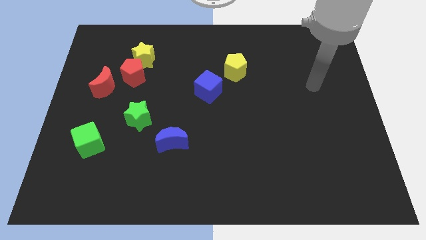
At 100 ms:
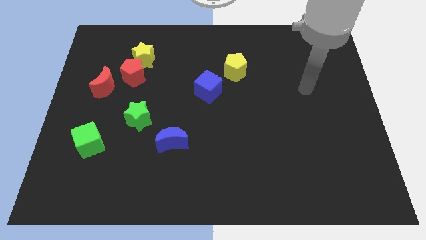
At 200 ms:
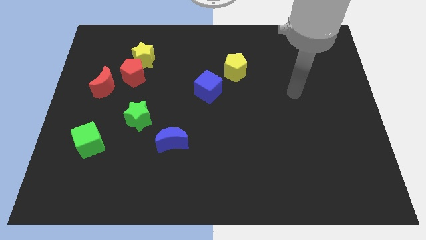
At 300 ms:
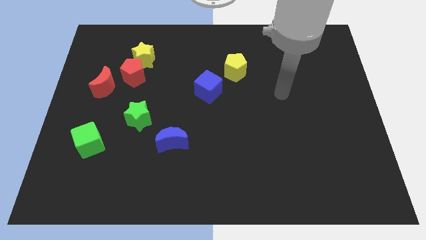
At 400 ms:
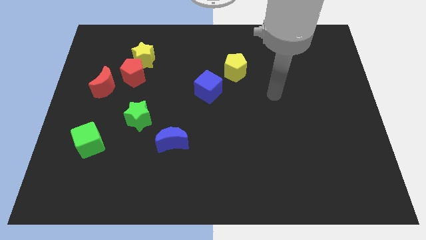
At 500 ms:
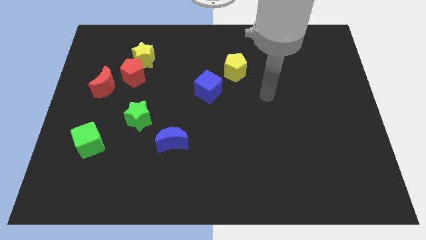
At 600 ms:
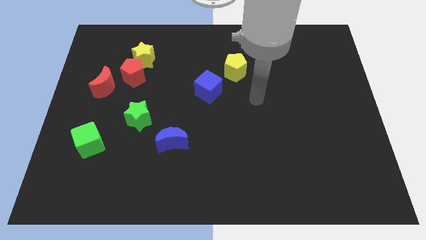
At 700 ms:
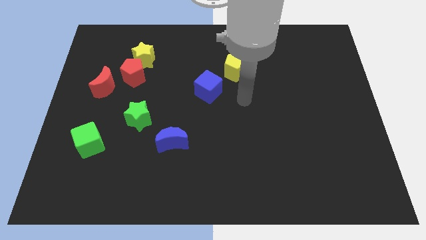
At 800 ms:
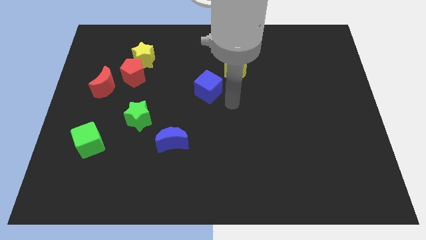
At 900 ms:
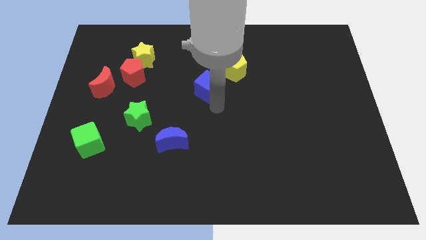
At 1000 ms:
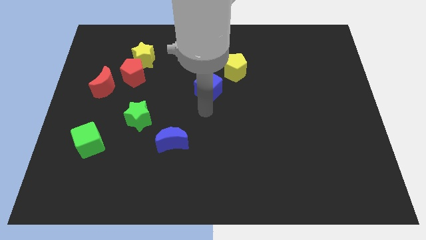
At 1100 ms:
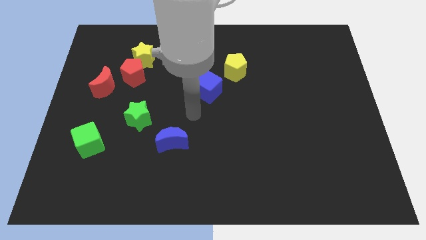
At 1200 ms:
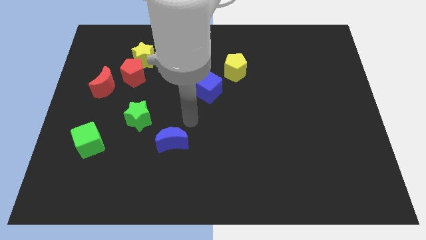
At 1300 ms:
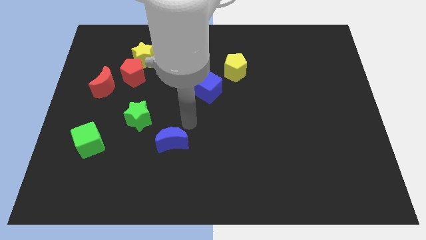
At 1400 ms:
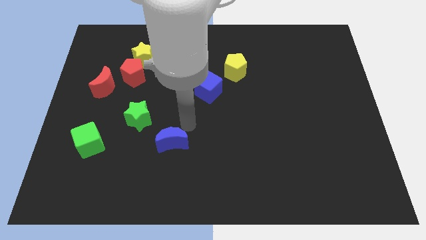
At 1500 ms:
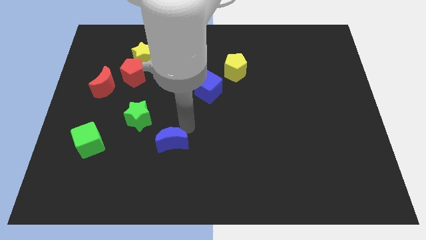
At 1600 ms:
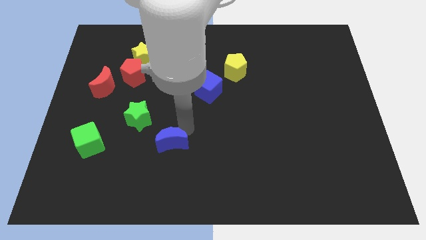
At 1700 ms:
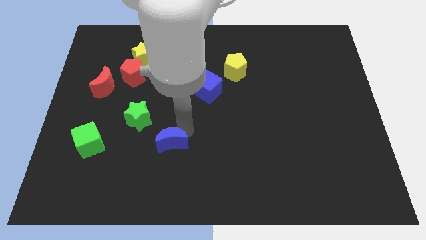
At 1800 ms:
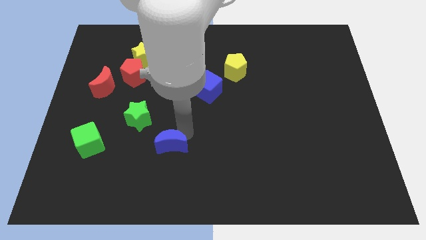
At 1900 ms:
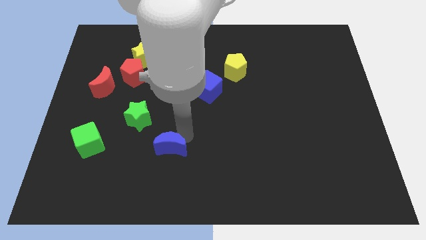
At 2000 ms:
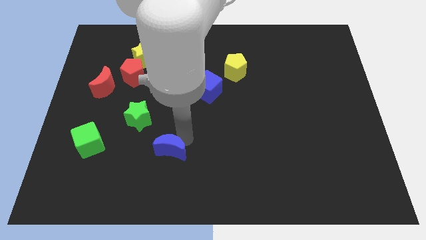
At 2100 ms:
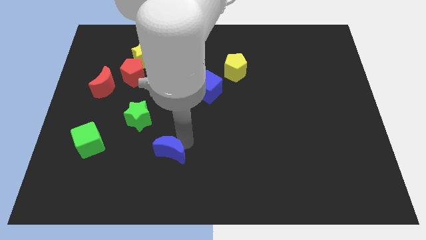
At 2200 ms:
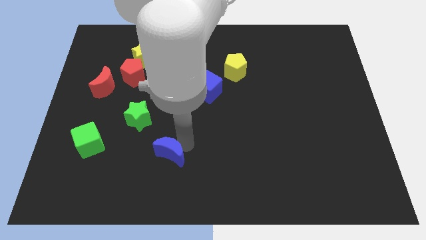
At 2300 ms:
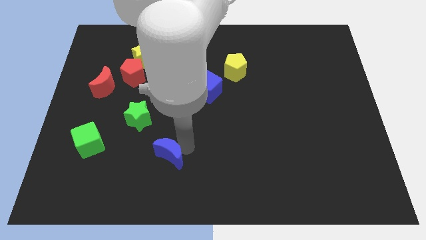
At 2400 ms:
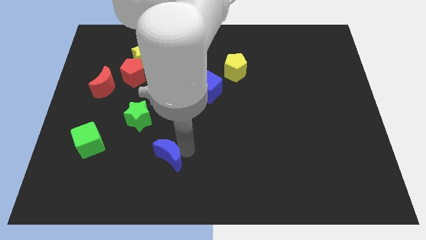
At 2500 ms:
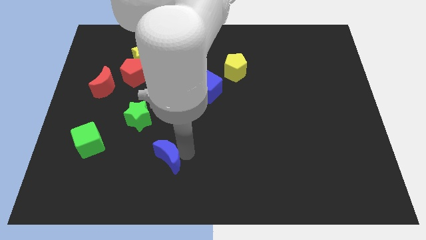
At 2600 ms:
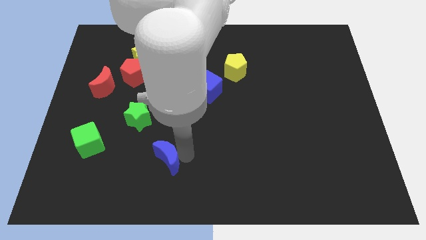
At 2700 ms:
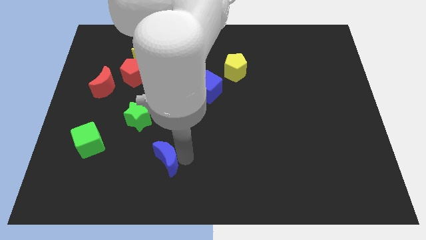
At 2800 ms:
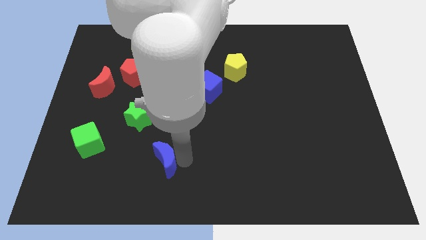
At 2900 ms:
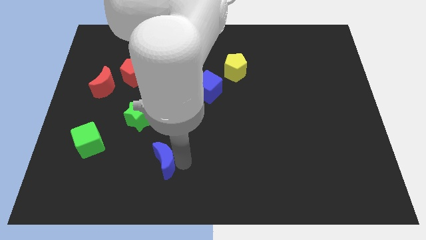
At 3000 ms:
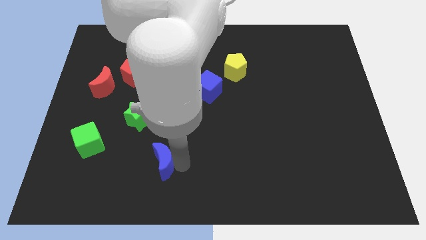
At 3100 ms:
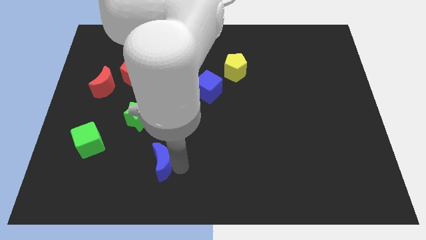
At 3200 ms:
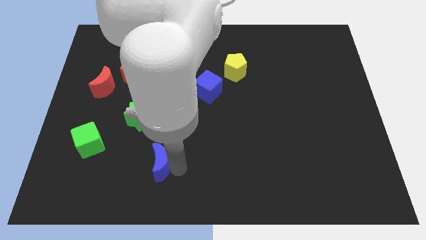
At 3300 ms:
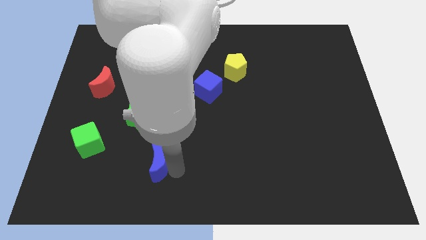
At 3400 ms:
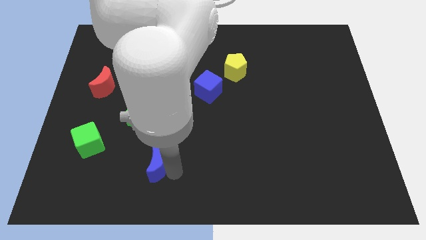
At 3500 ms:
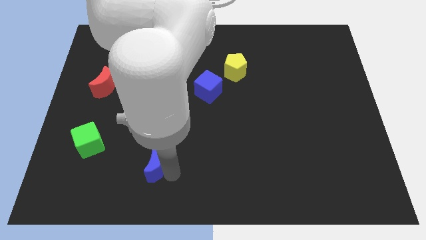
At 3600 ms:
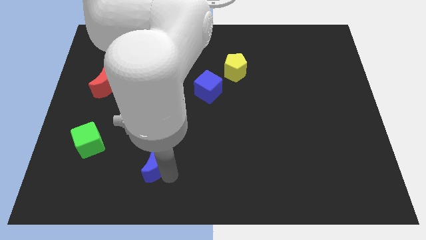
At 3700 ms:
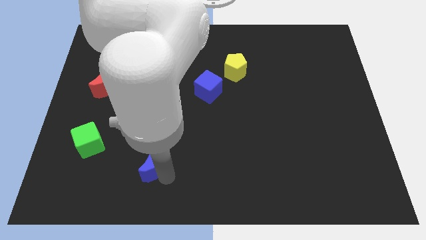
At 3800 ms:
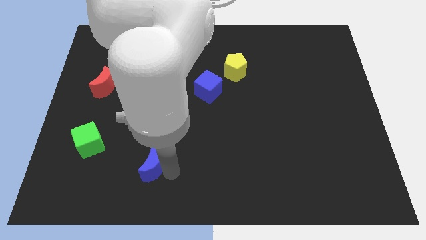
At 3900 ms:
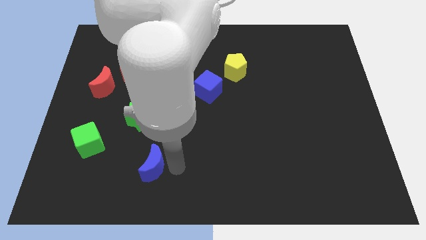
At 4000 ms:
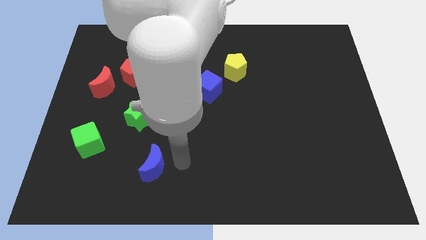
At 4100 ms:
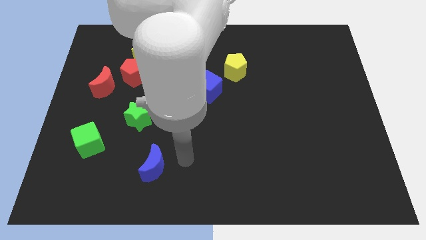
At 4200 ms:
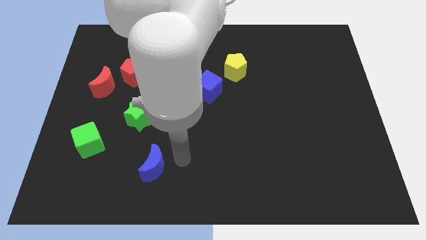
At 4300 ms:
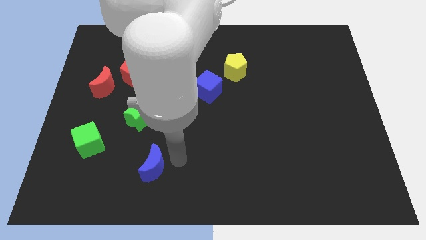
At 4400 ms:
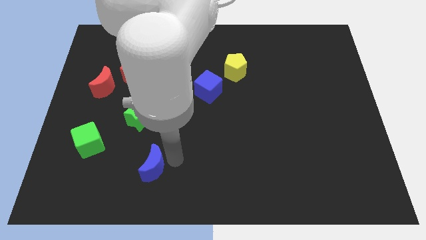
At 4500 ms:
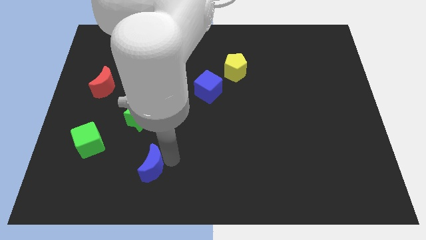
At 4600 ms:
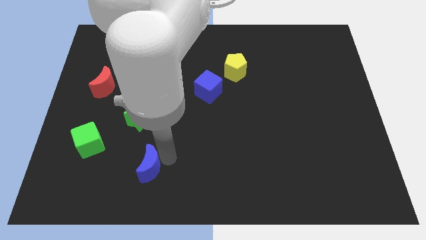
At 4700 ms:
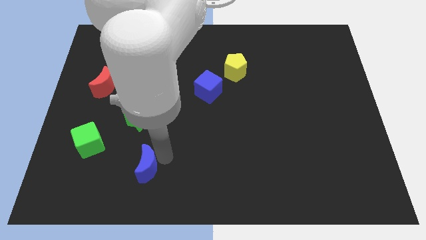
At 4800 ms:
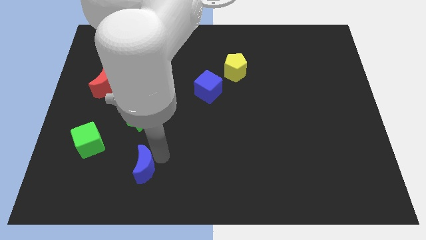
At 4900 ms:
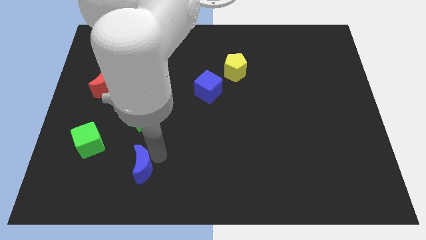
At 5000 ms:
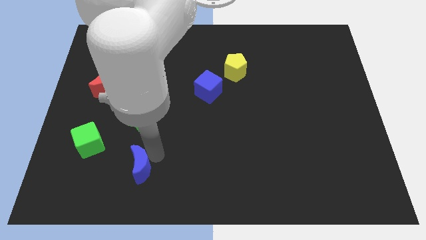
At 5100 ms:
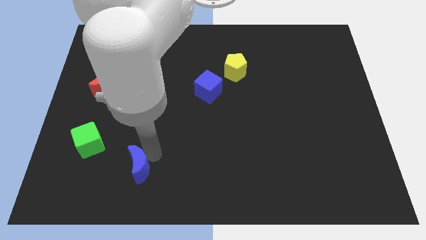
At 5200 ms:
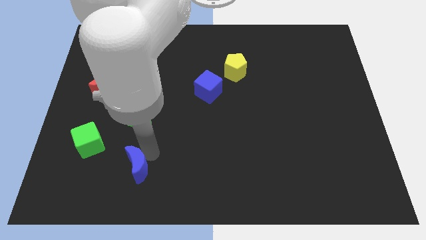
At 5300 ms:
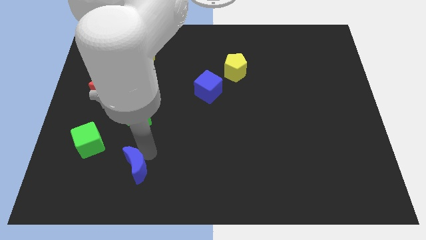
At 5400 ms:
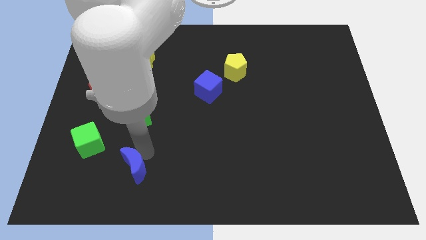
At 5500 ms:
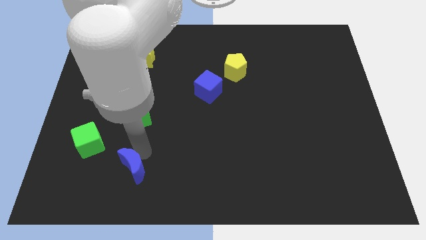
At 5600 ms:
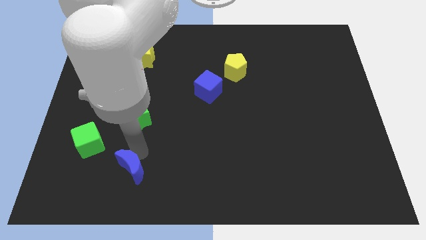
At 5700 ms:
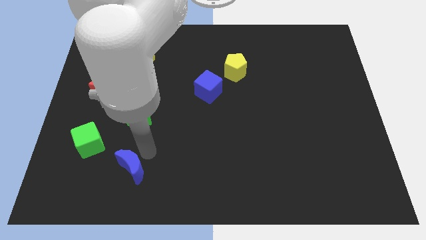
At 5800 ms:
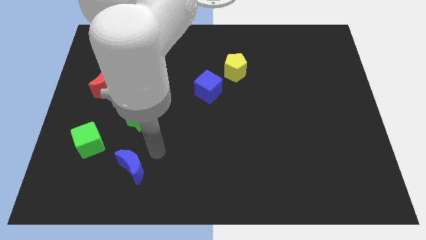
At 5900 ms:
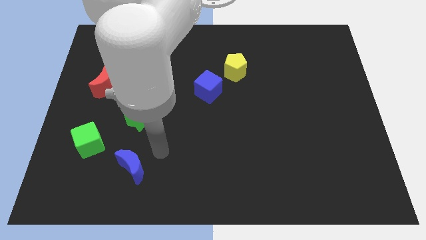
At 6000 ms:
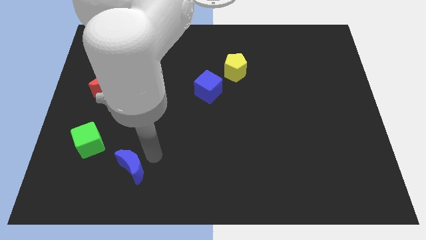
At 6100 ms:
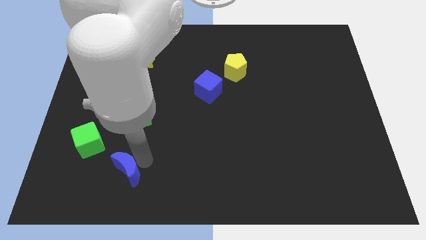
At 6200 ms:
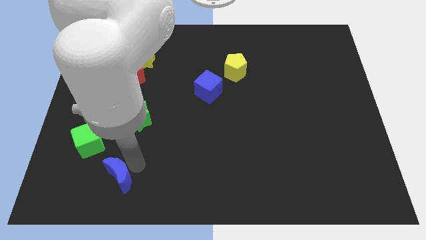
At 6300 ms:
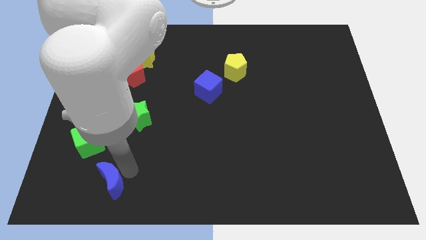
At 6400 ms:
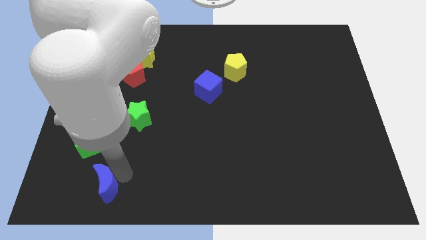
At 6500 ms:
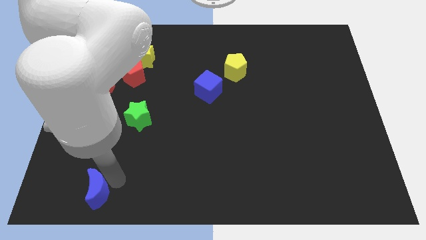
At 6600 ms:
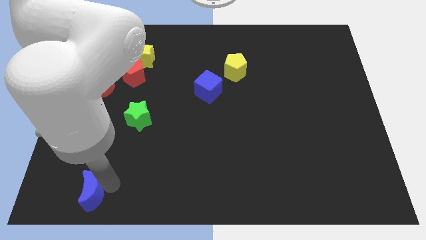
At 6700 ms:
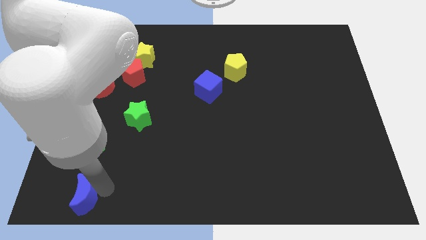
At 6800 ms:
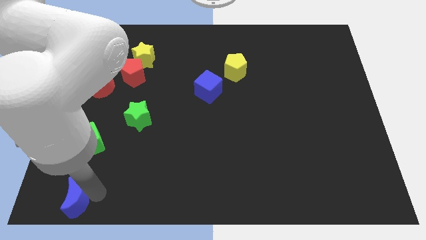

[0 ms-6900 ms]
slide the blue moon to the bottom left of the board

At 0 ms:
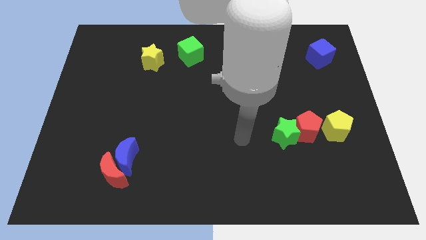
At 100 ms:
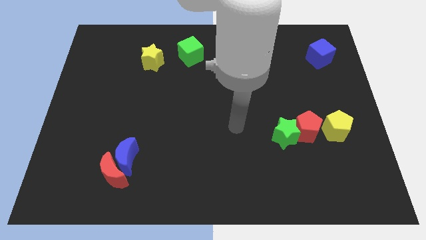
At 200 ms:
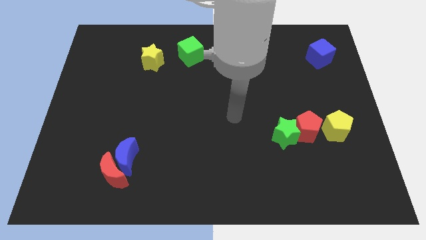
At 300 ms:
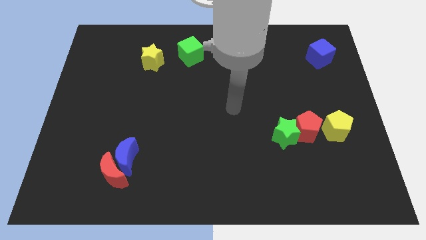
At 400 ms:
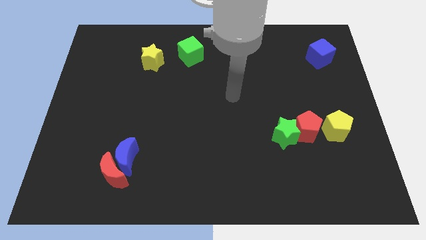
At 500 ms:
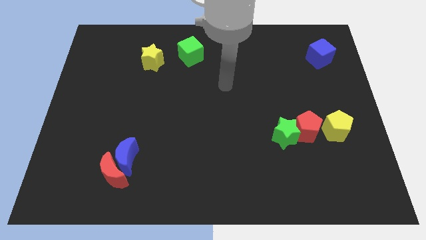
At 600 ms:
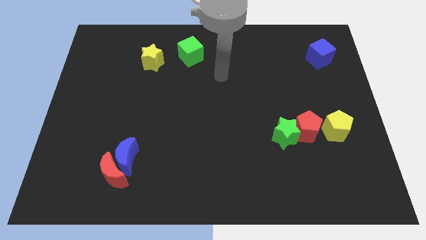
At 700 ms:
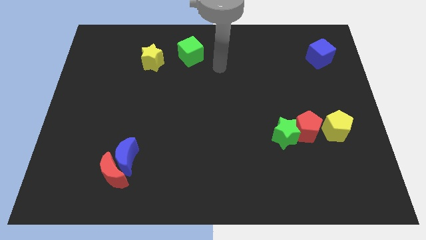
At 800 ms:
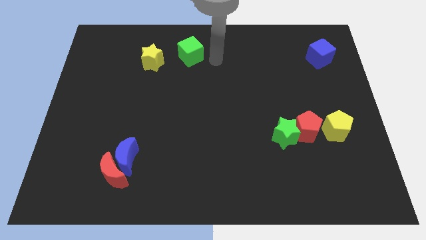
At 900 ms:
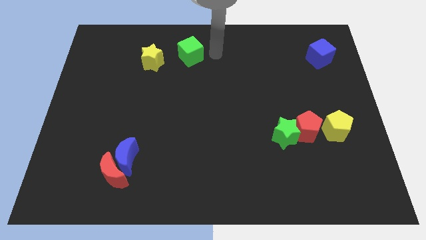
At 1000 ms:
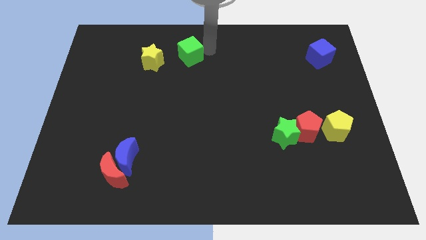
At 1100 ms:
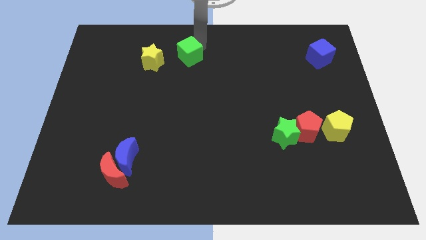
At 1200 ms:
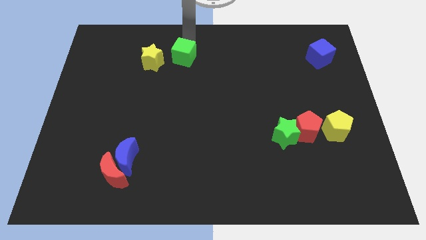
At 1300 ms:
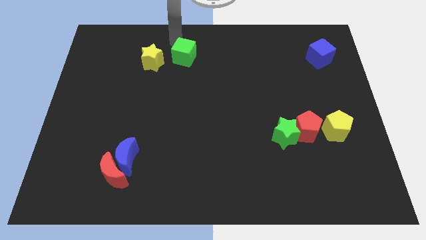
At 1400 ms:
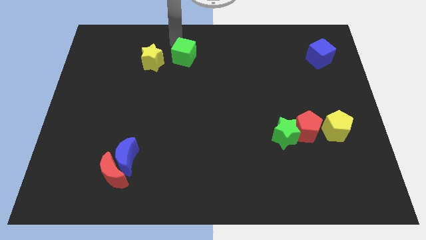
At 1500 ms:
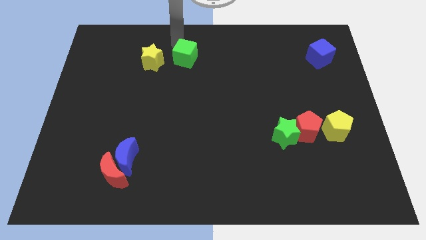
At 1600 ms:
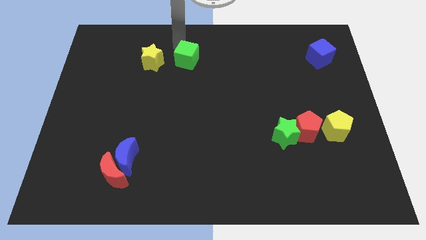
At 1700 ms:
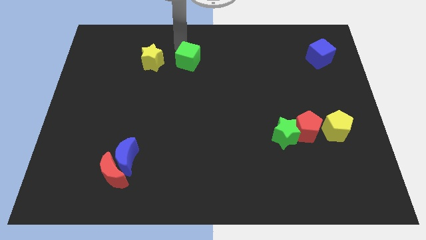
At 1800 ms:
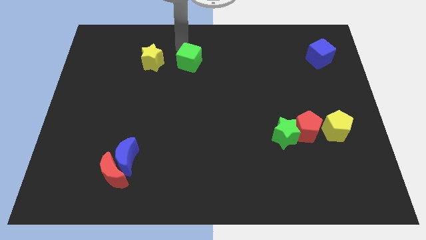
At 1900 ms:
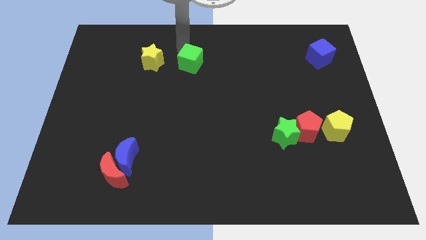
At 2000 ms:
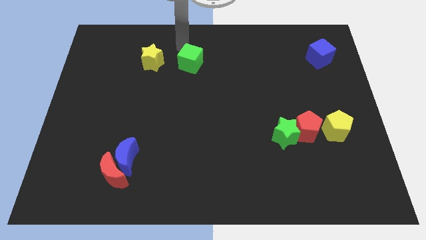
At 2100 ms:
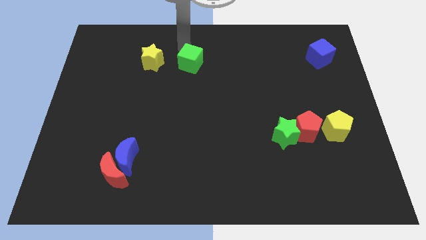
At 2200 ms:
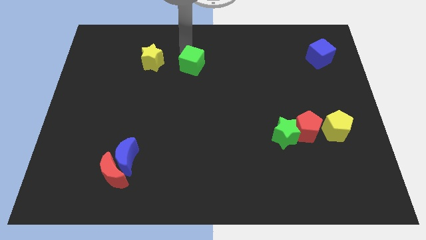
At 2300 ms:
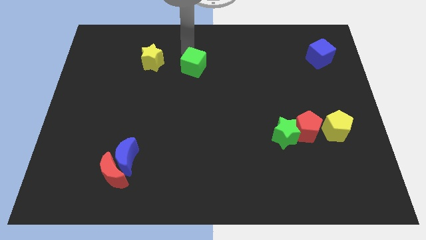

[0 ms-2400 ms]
slide the green cube to the center
